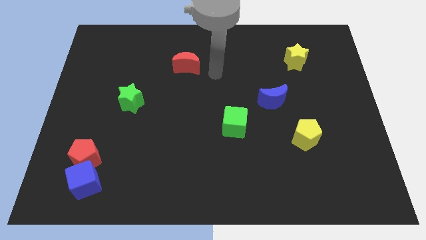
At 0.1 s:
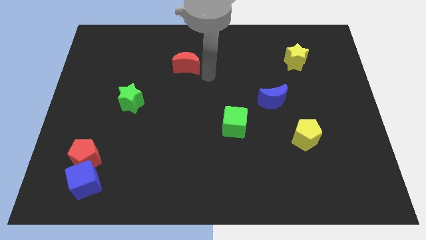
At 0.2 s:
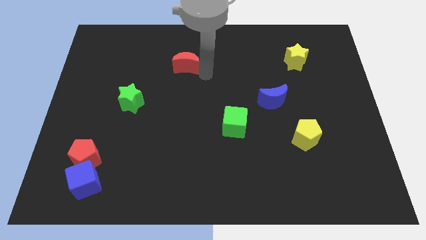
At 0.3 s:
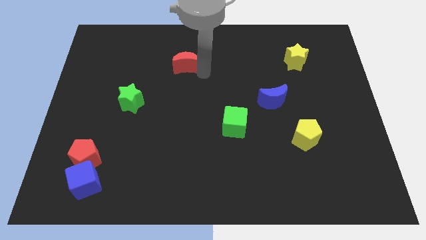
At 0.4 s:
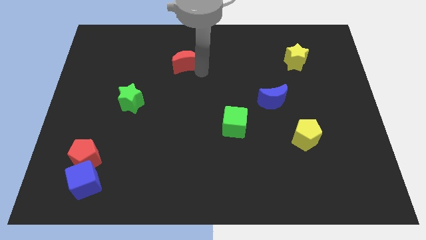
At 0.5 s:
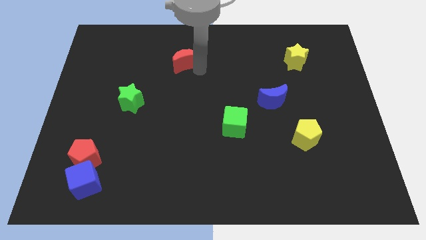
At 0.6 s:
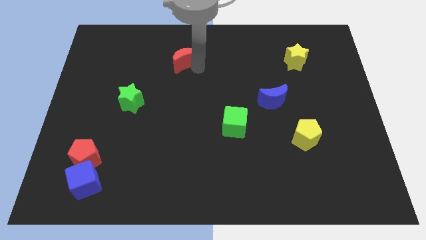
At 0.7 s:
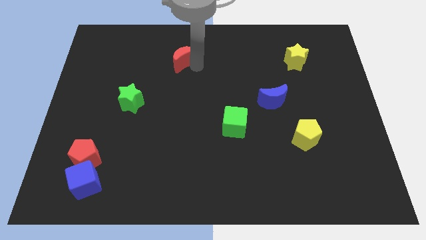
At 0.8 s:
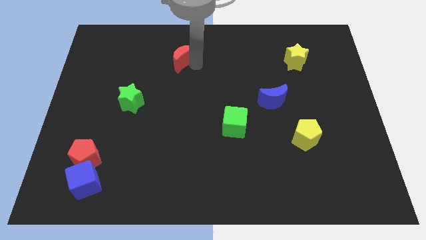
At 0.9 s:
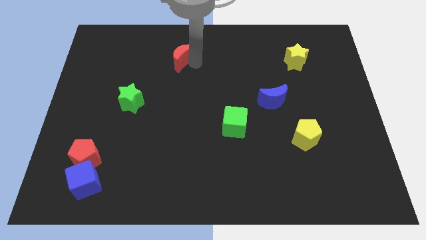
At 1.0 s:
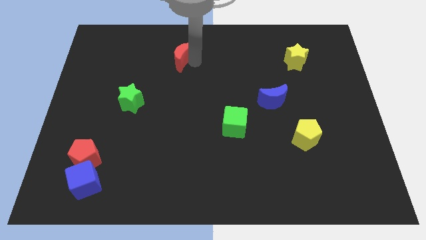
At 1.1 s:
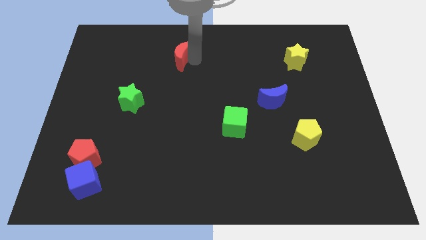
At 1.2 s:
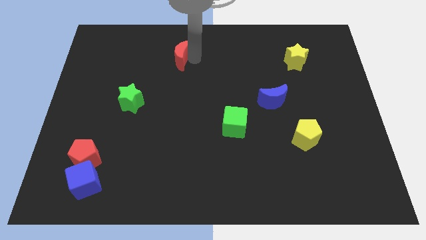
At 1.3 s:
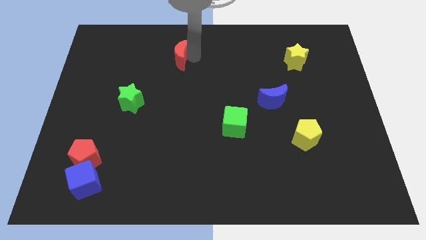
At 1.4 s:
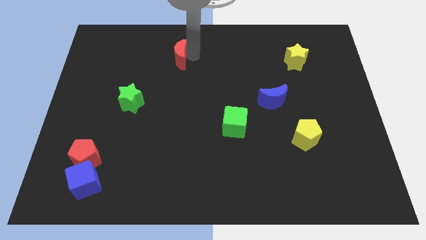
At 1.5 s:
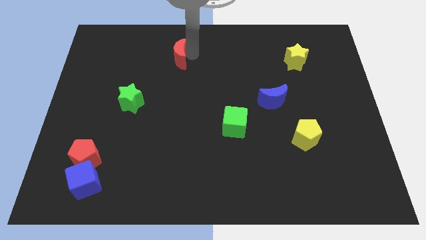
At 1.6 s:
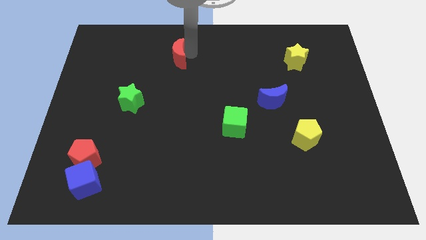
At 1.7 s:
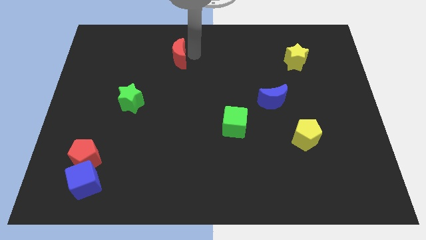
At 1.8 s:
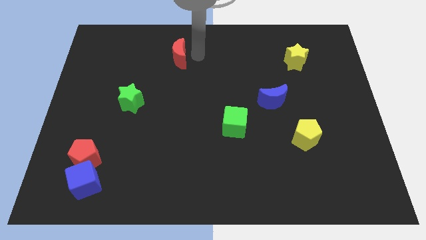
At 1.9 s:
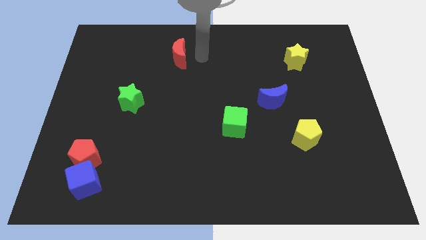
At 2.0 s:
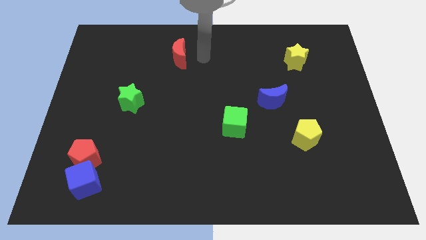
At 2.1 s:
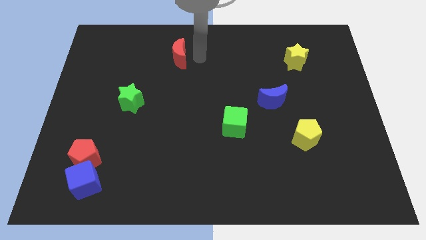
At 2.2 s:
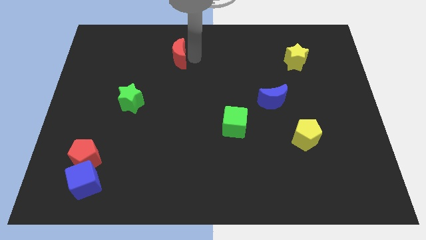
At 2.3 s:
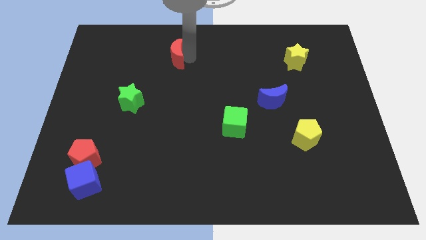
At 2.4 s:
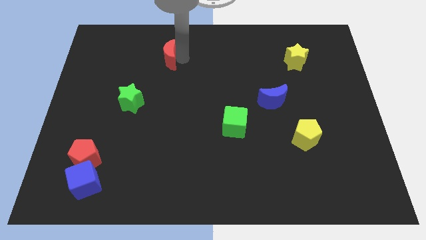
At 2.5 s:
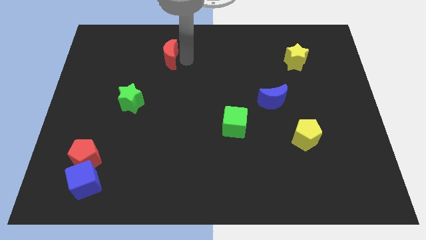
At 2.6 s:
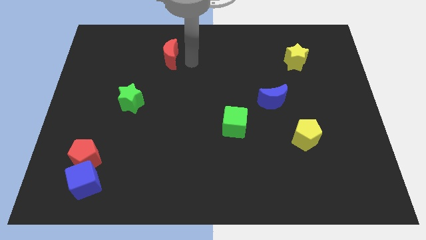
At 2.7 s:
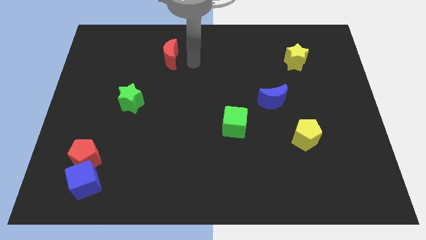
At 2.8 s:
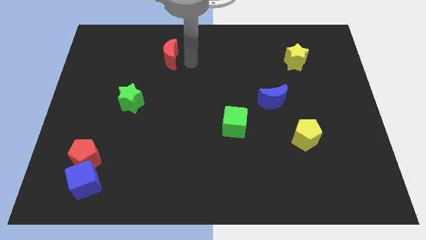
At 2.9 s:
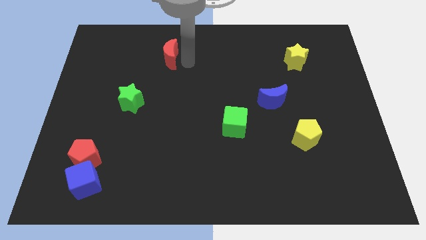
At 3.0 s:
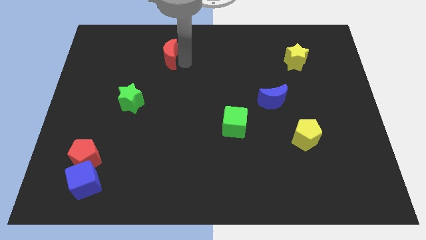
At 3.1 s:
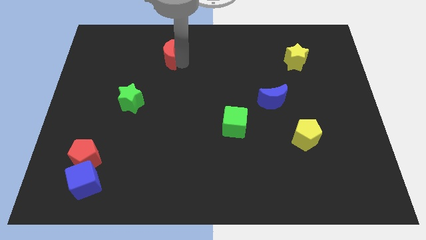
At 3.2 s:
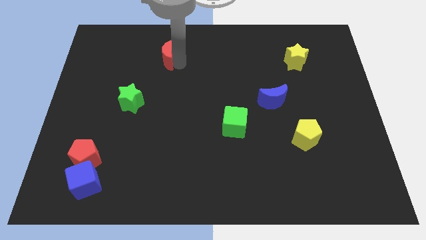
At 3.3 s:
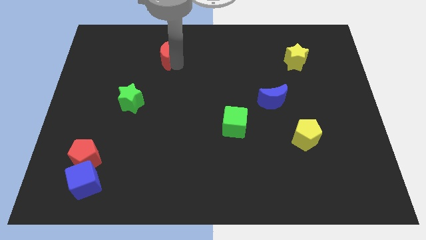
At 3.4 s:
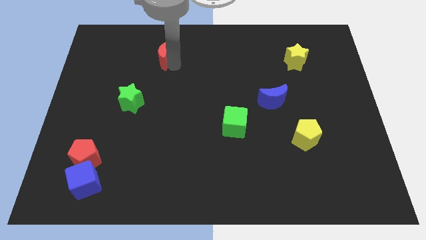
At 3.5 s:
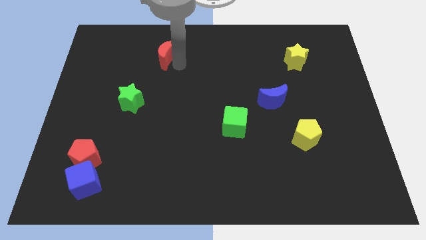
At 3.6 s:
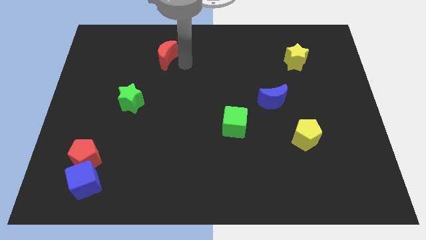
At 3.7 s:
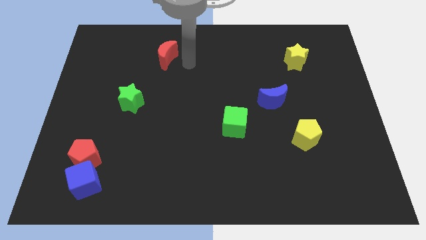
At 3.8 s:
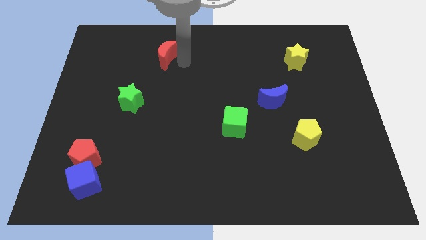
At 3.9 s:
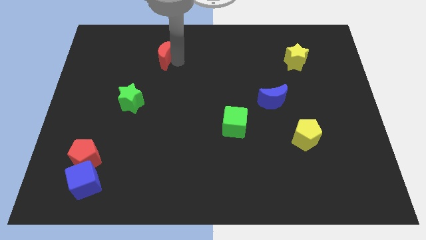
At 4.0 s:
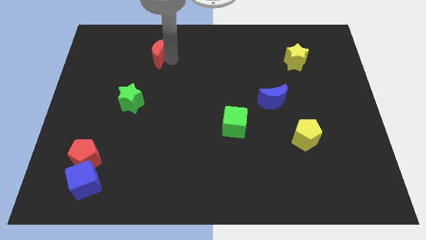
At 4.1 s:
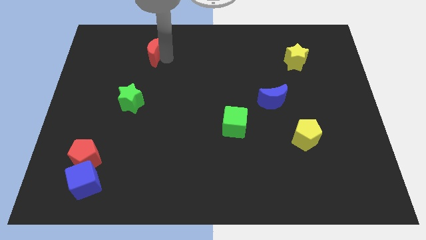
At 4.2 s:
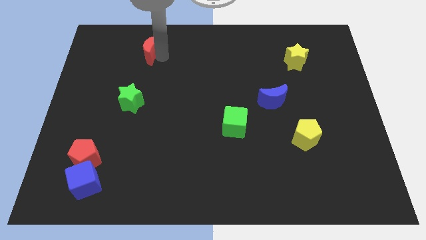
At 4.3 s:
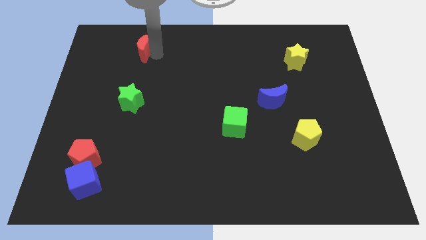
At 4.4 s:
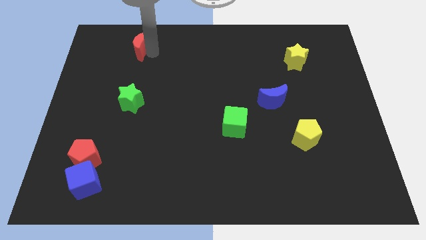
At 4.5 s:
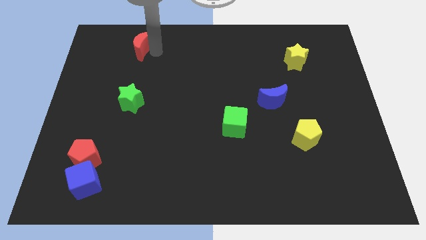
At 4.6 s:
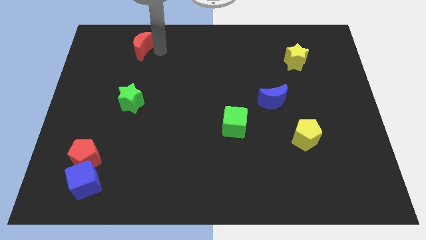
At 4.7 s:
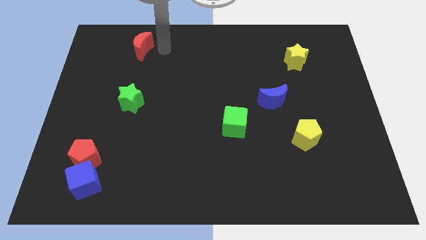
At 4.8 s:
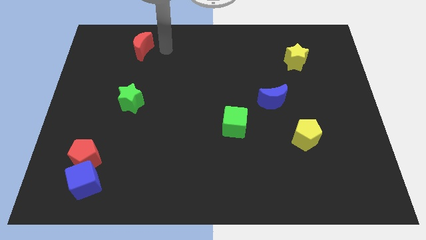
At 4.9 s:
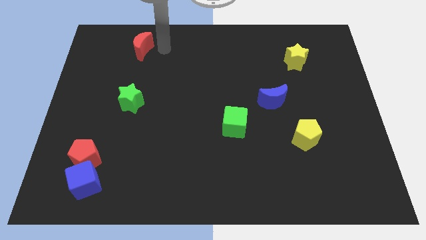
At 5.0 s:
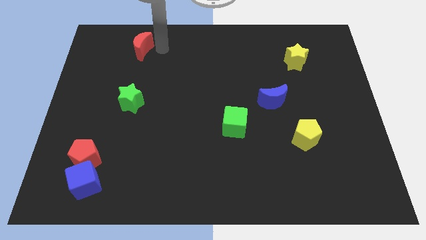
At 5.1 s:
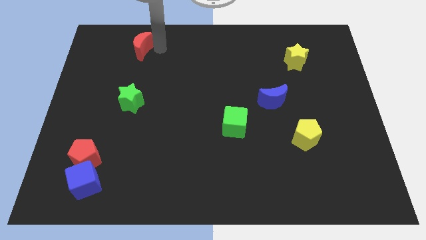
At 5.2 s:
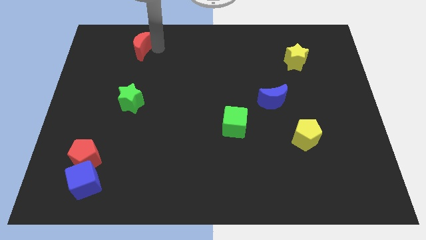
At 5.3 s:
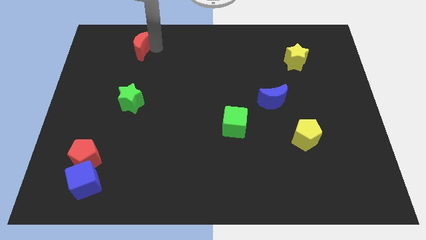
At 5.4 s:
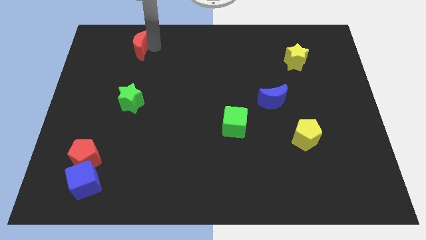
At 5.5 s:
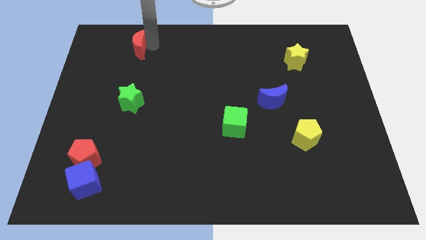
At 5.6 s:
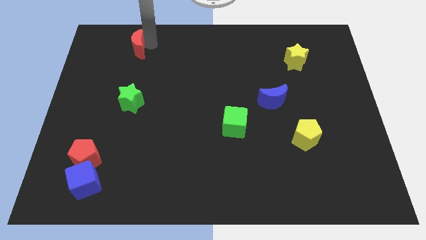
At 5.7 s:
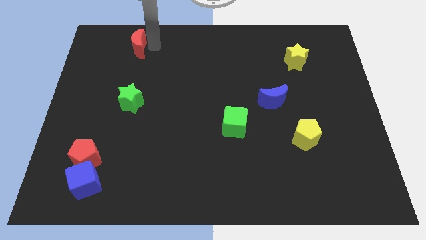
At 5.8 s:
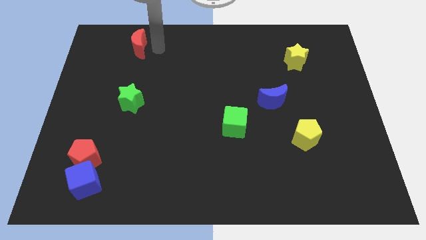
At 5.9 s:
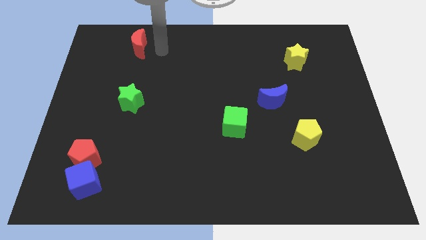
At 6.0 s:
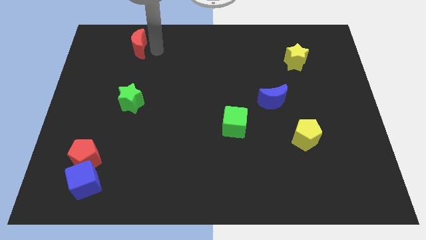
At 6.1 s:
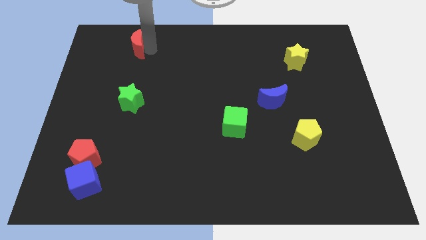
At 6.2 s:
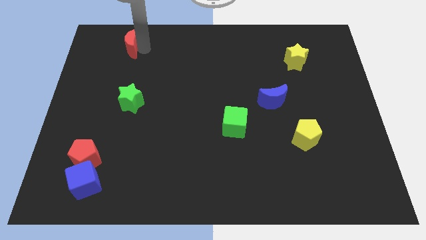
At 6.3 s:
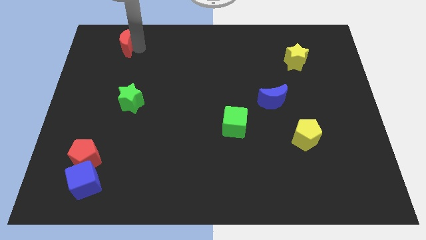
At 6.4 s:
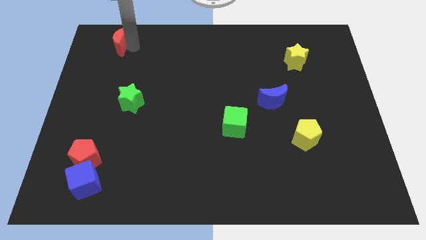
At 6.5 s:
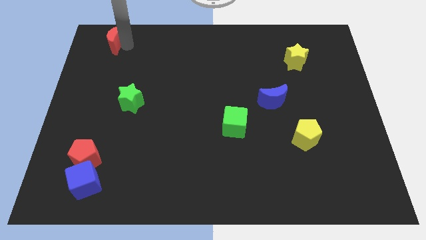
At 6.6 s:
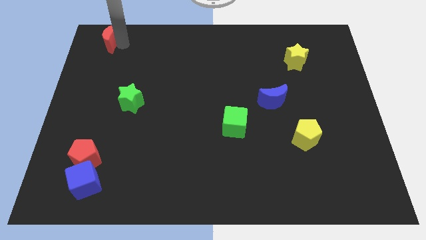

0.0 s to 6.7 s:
move the red moon to the top left of the board

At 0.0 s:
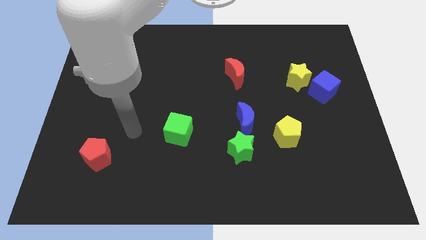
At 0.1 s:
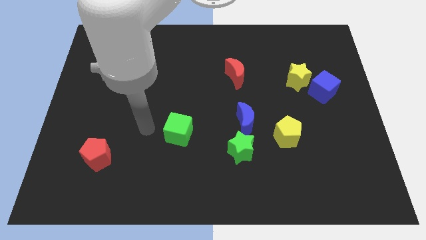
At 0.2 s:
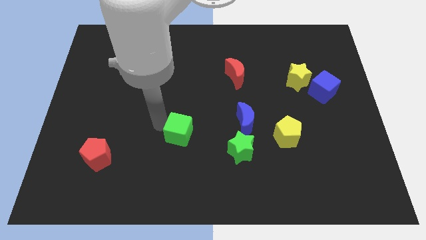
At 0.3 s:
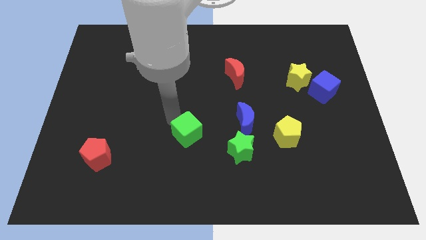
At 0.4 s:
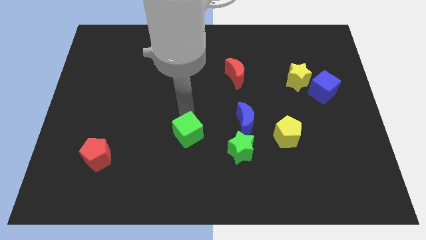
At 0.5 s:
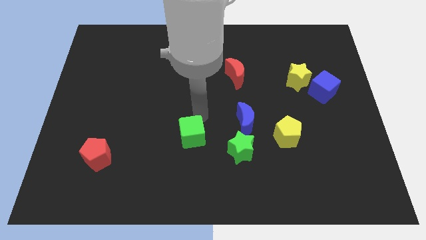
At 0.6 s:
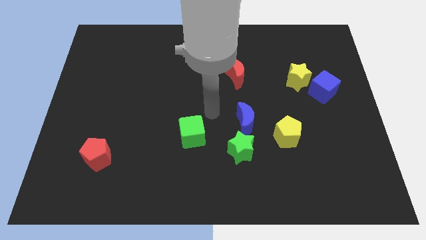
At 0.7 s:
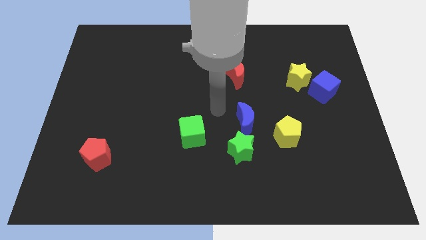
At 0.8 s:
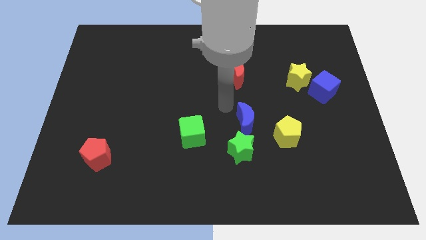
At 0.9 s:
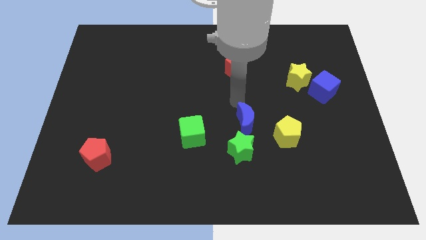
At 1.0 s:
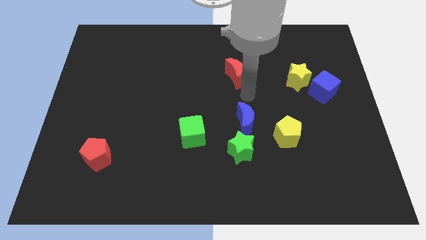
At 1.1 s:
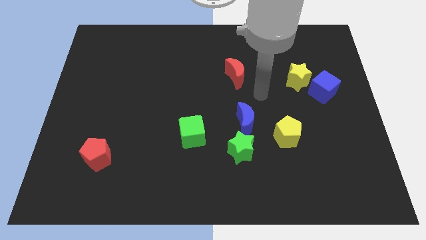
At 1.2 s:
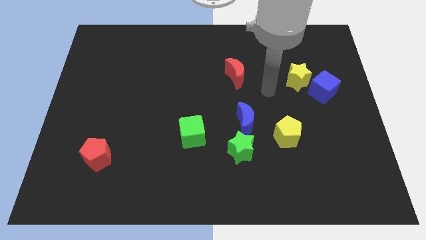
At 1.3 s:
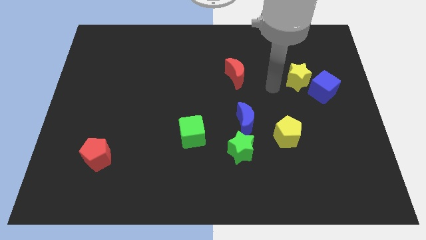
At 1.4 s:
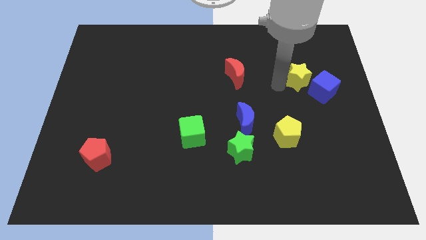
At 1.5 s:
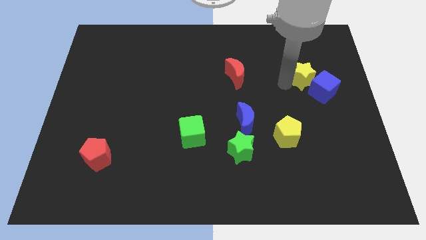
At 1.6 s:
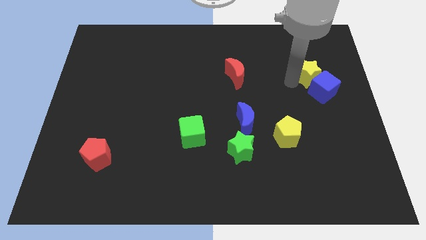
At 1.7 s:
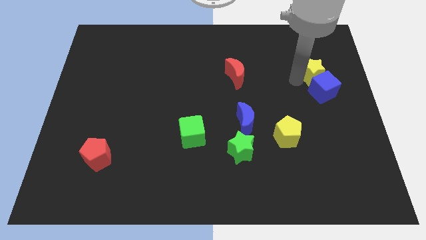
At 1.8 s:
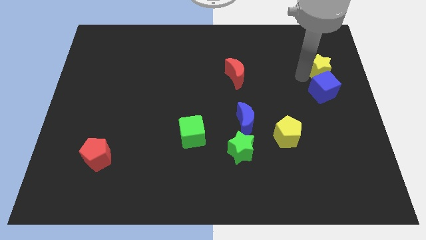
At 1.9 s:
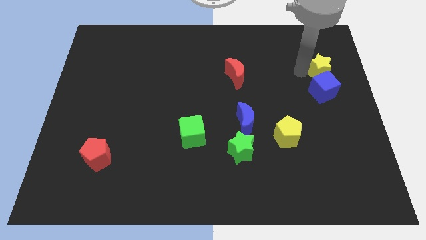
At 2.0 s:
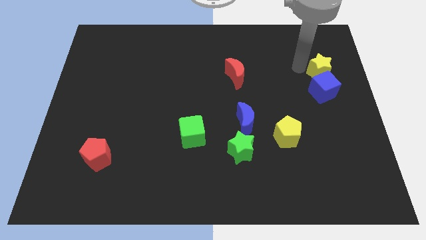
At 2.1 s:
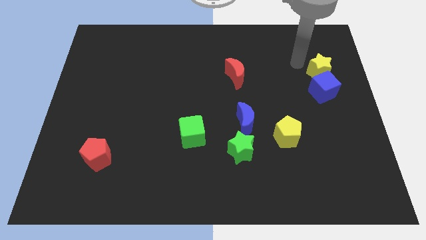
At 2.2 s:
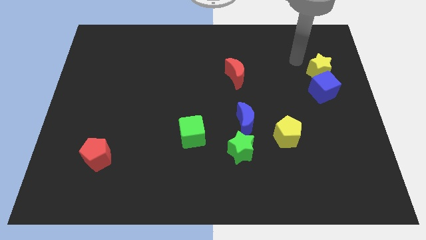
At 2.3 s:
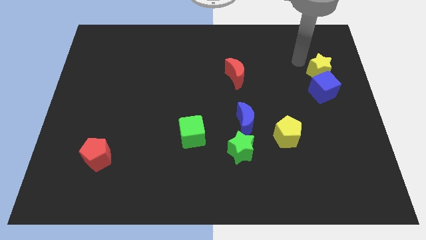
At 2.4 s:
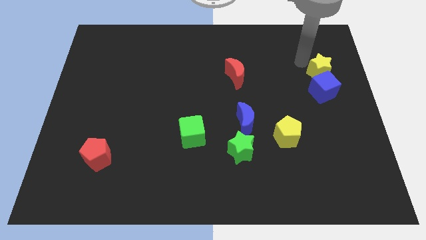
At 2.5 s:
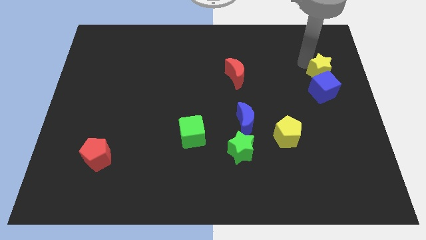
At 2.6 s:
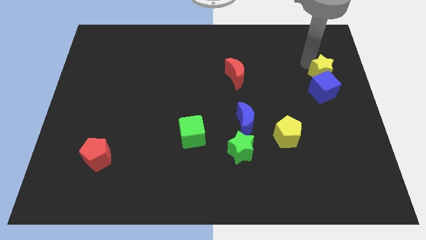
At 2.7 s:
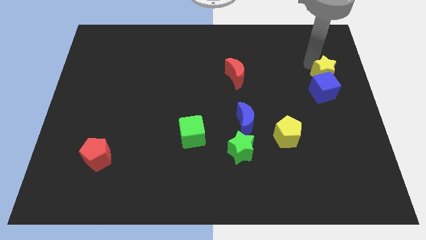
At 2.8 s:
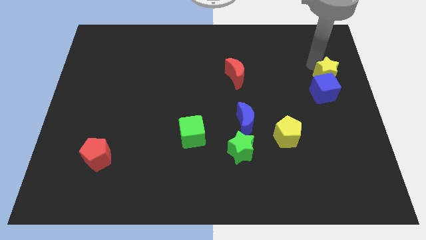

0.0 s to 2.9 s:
move the yellow star to the right side of the board
